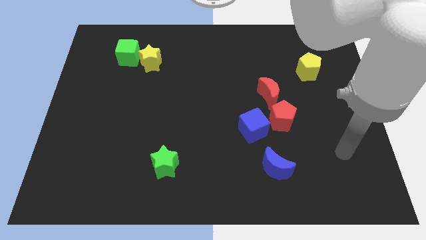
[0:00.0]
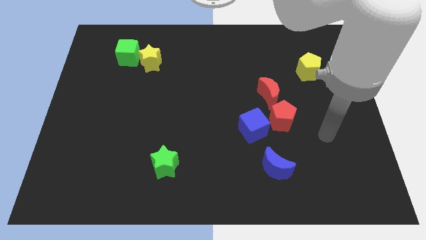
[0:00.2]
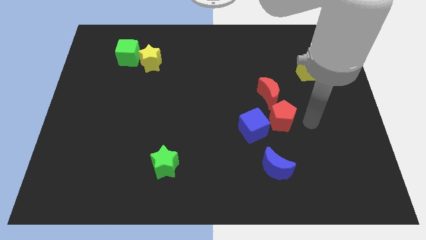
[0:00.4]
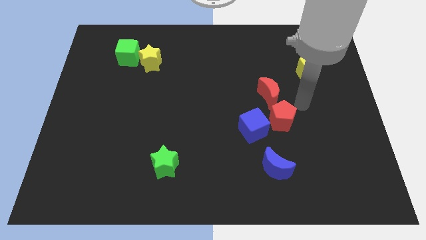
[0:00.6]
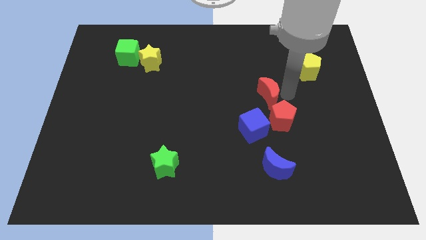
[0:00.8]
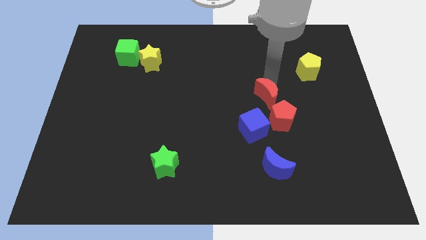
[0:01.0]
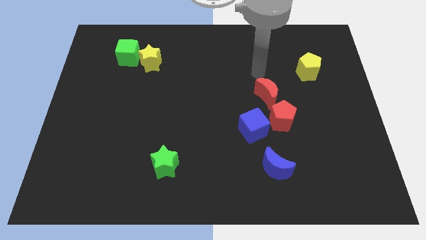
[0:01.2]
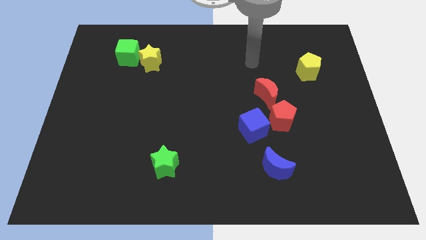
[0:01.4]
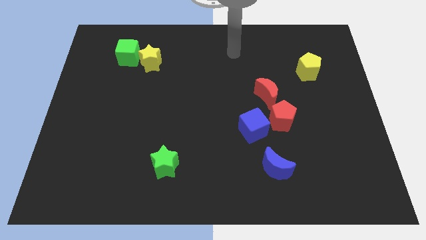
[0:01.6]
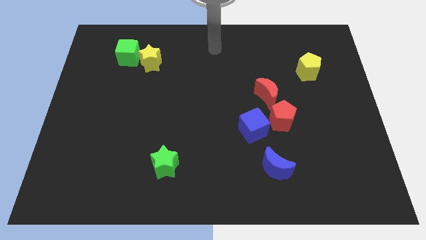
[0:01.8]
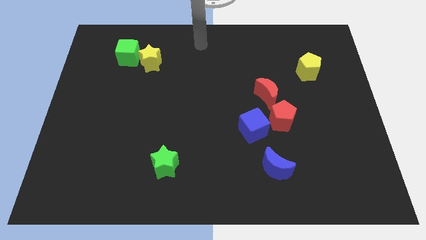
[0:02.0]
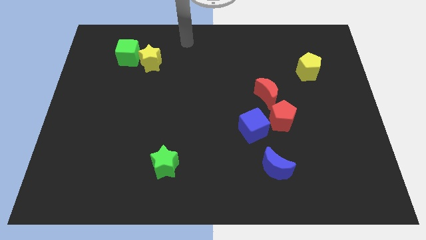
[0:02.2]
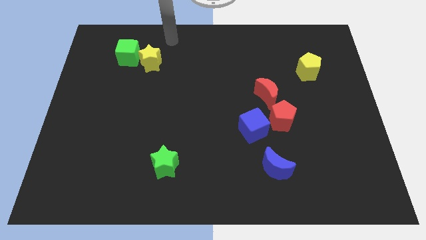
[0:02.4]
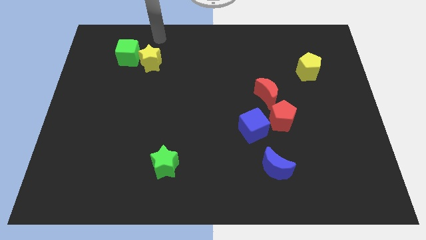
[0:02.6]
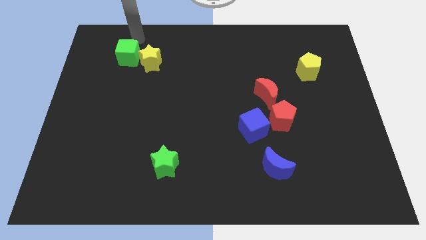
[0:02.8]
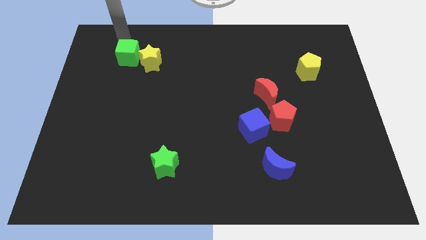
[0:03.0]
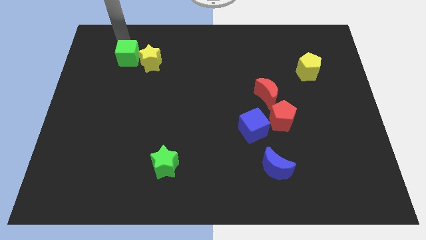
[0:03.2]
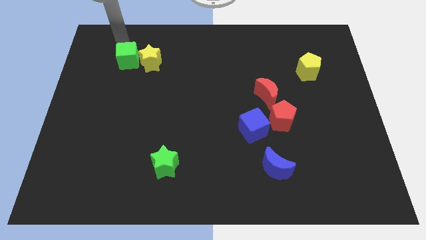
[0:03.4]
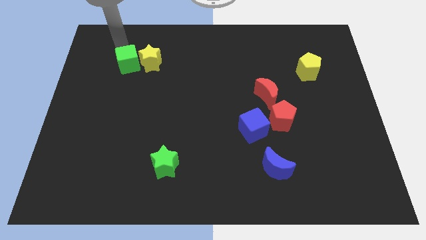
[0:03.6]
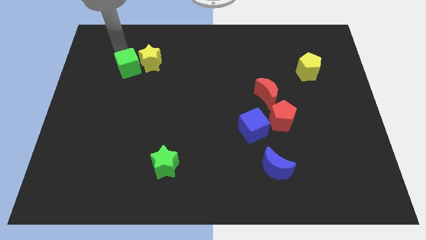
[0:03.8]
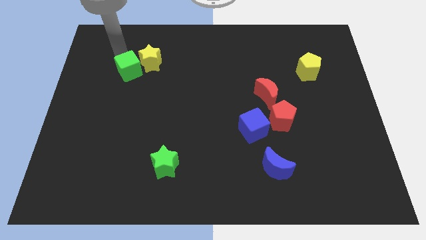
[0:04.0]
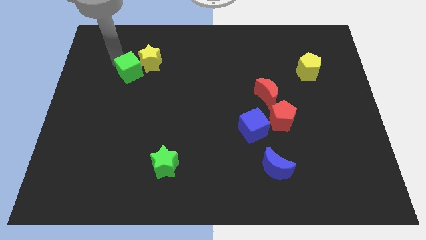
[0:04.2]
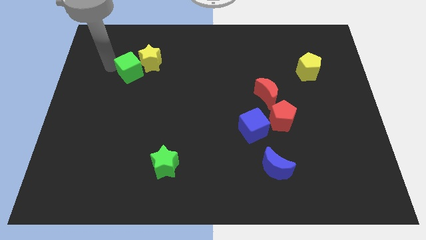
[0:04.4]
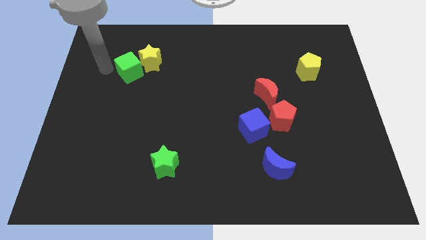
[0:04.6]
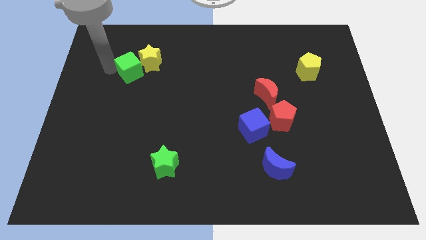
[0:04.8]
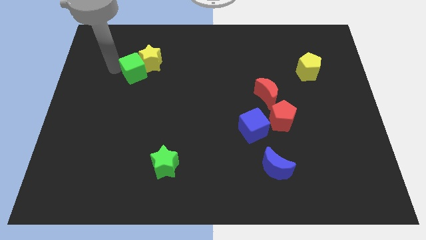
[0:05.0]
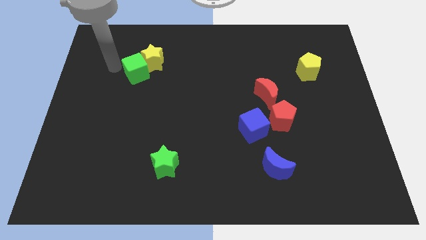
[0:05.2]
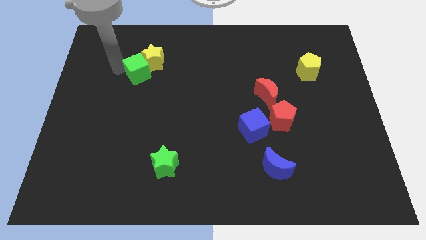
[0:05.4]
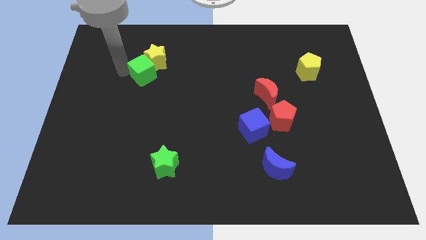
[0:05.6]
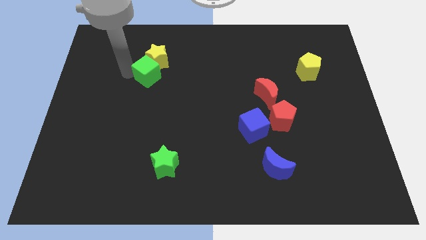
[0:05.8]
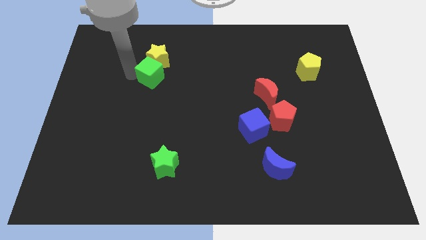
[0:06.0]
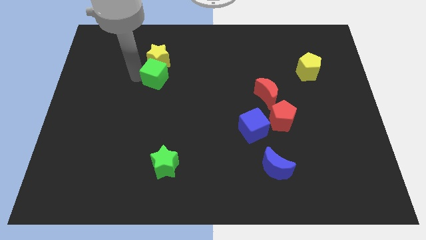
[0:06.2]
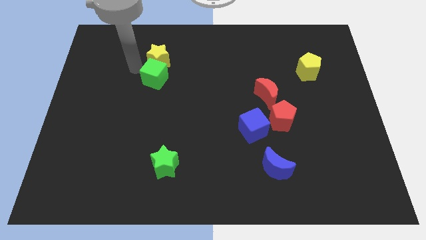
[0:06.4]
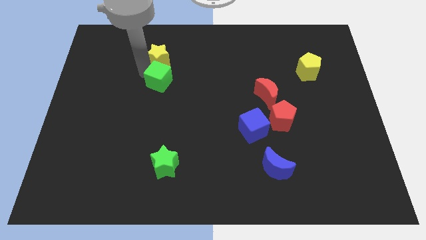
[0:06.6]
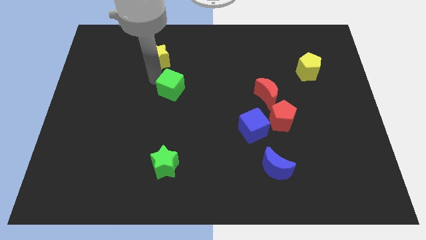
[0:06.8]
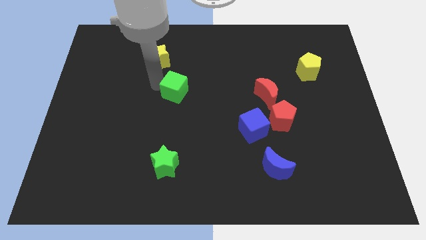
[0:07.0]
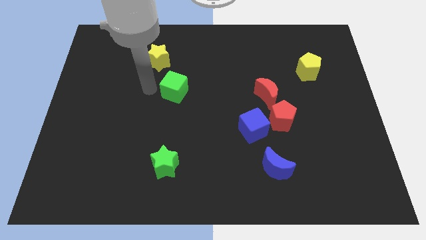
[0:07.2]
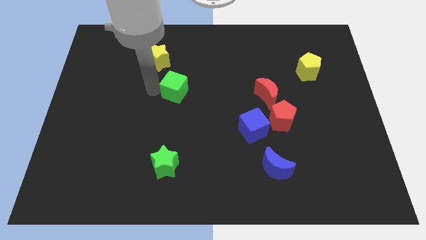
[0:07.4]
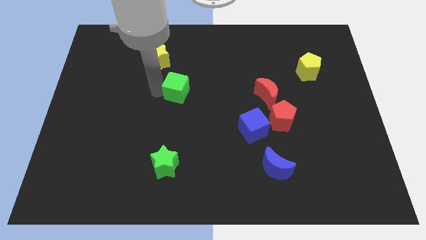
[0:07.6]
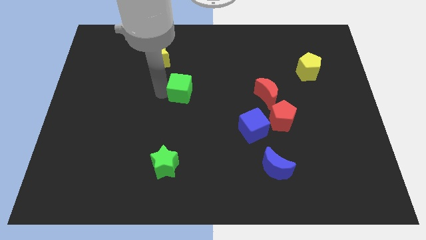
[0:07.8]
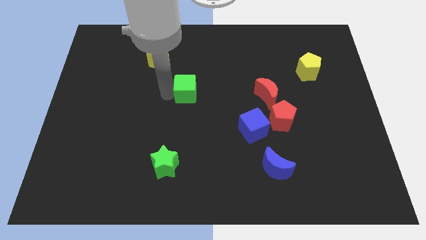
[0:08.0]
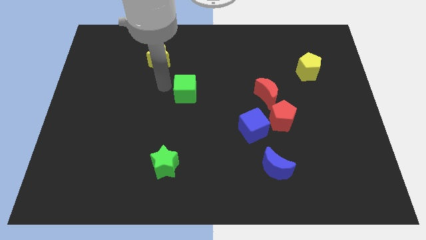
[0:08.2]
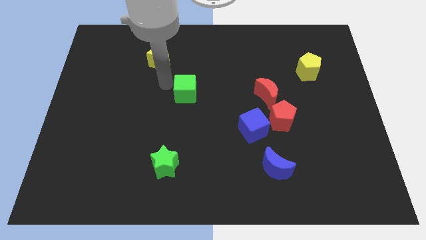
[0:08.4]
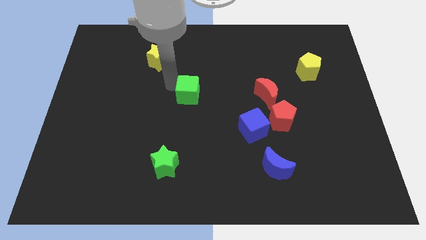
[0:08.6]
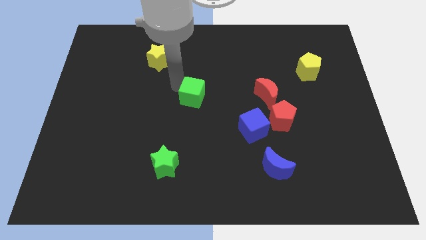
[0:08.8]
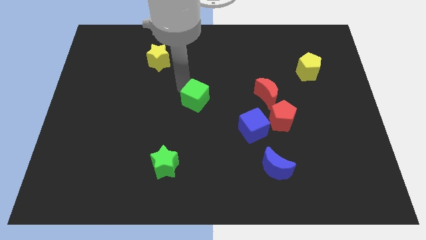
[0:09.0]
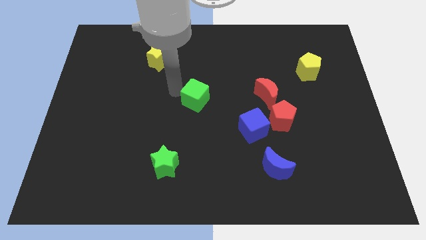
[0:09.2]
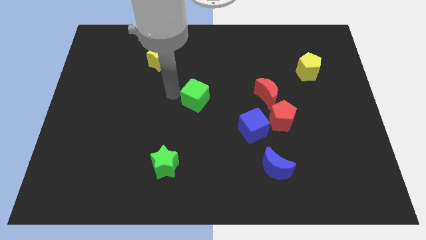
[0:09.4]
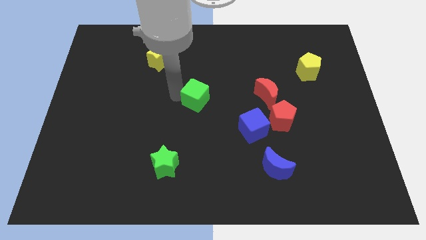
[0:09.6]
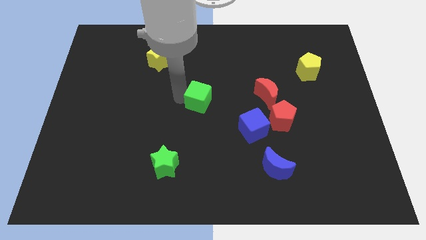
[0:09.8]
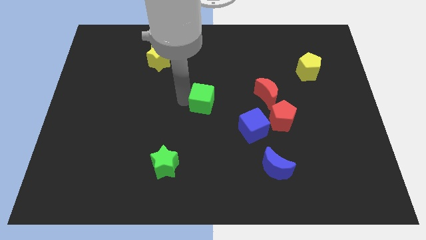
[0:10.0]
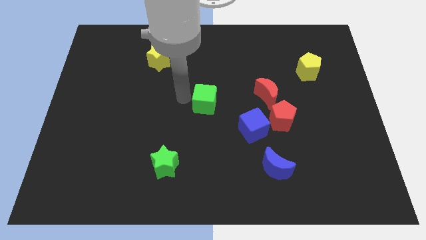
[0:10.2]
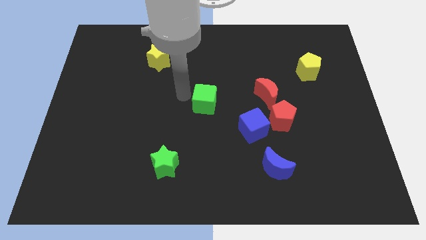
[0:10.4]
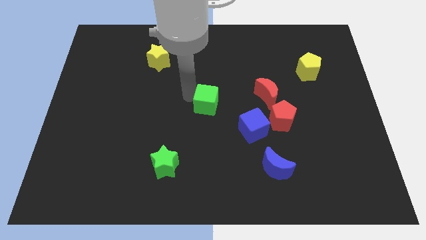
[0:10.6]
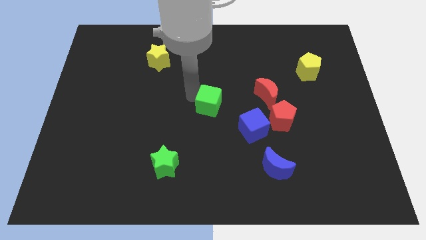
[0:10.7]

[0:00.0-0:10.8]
put the green cube diagonally up and to the left of the blue cube

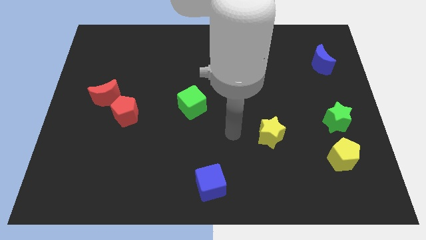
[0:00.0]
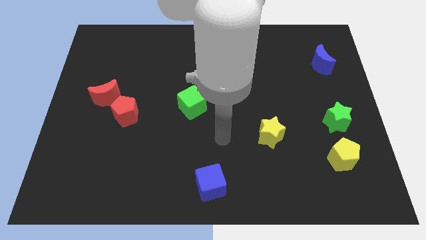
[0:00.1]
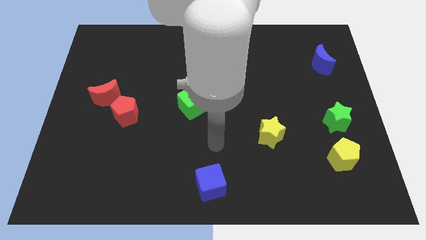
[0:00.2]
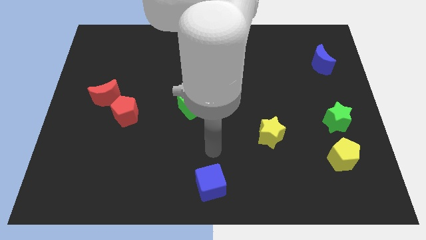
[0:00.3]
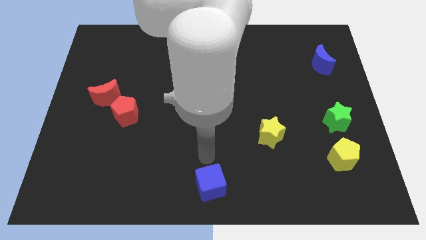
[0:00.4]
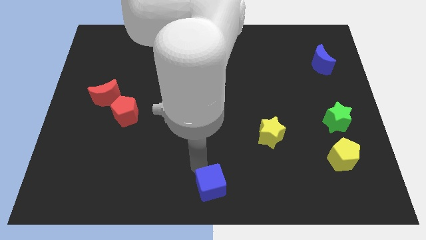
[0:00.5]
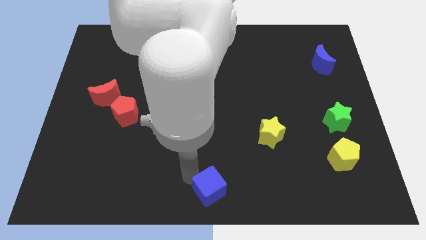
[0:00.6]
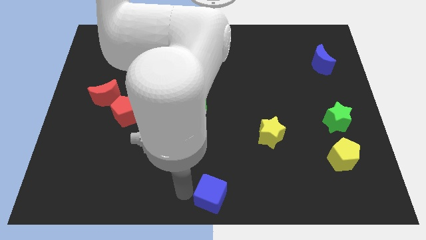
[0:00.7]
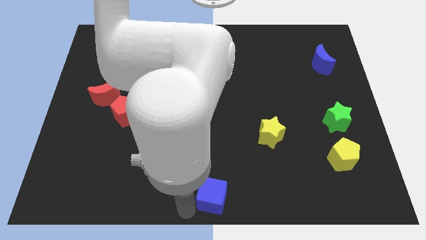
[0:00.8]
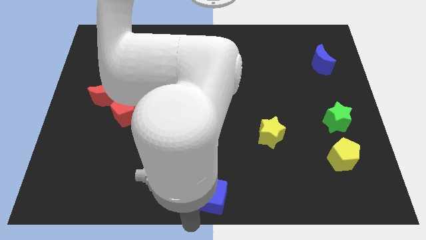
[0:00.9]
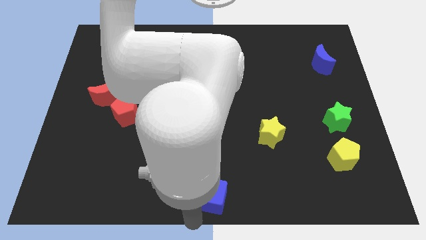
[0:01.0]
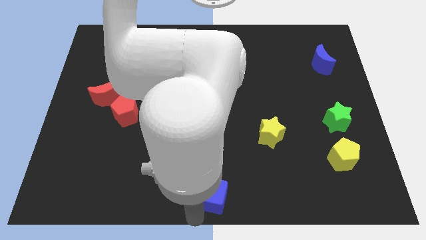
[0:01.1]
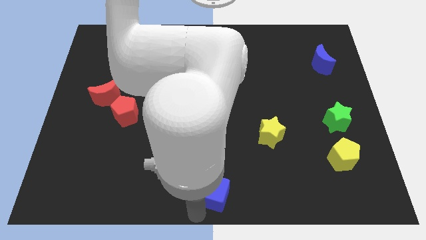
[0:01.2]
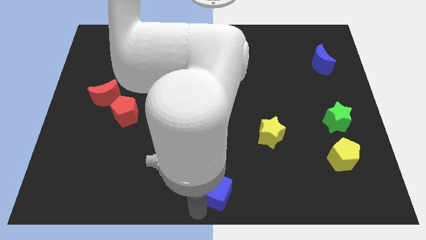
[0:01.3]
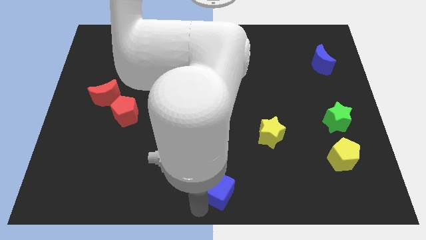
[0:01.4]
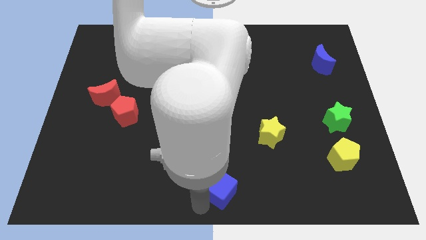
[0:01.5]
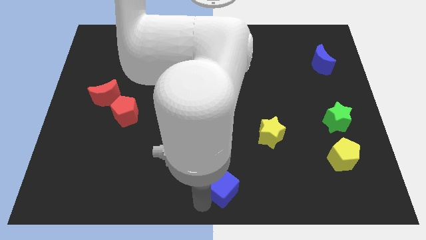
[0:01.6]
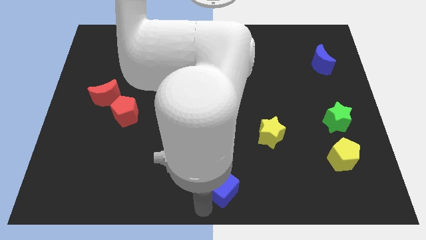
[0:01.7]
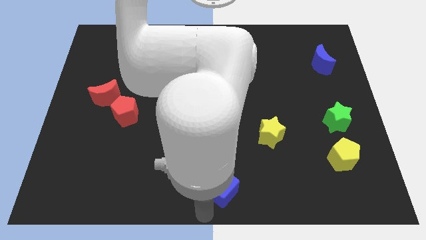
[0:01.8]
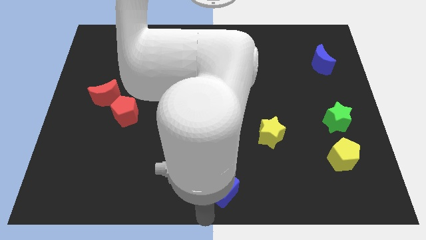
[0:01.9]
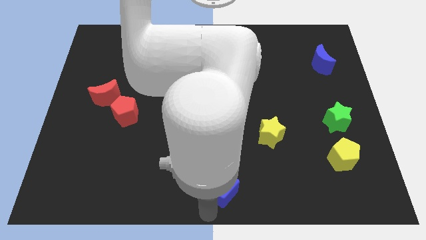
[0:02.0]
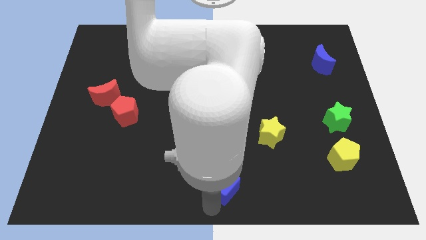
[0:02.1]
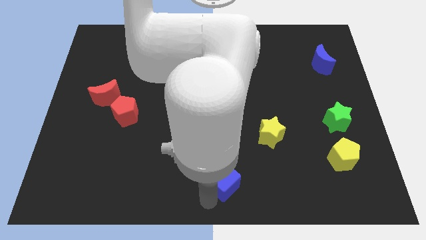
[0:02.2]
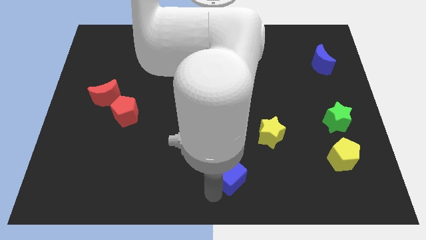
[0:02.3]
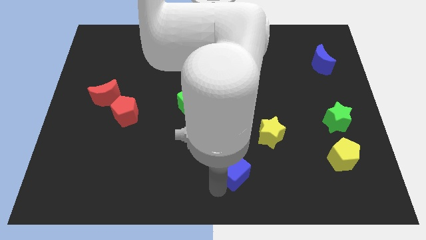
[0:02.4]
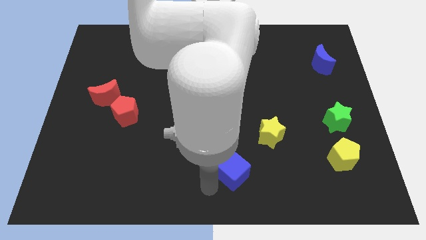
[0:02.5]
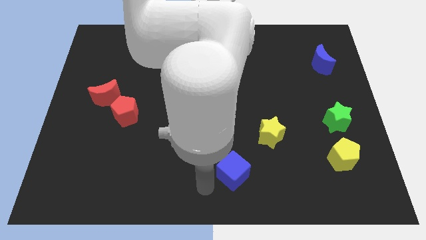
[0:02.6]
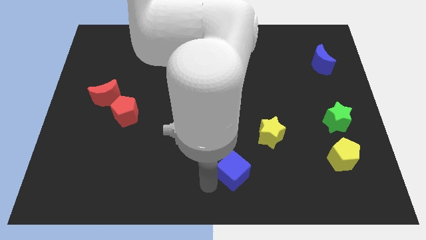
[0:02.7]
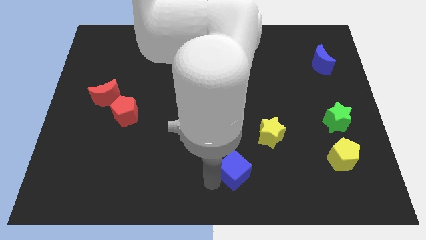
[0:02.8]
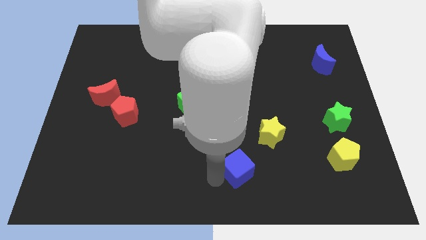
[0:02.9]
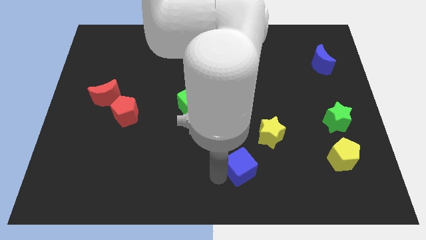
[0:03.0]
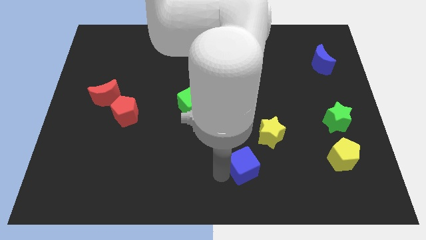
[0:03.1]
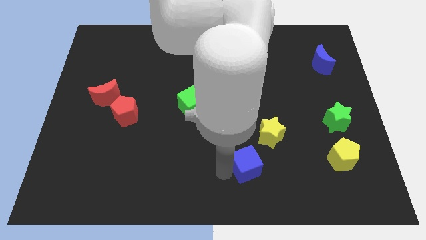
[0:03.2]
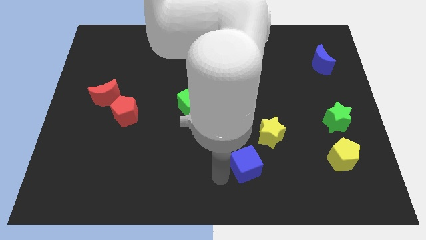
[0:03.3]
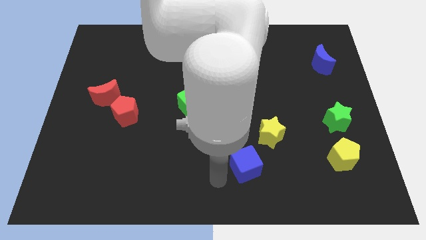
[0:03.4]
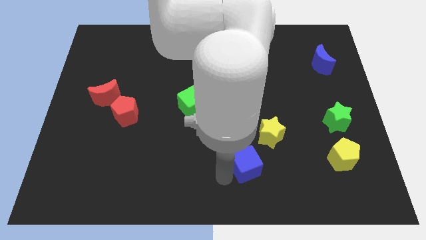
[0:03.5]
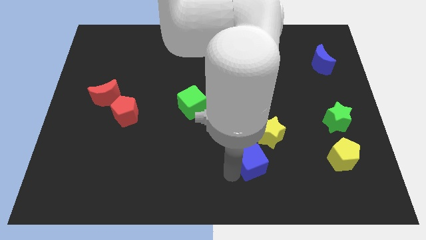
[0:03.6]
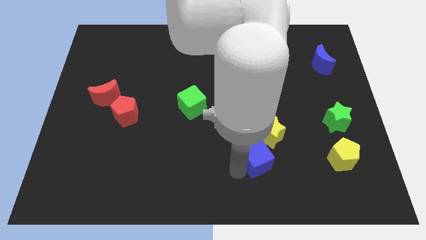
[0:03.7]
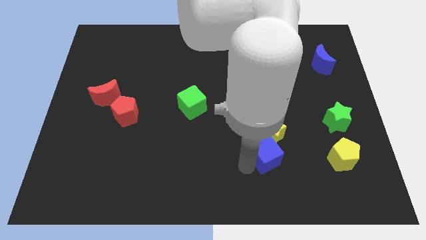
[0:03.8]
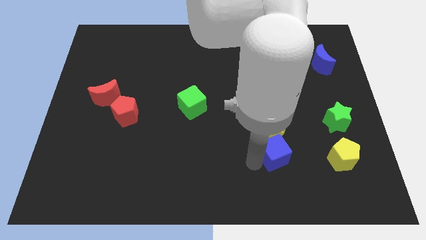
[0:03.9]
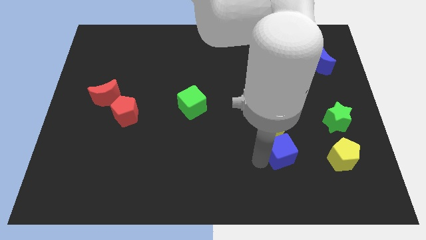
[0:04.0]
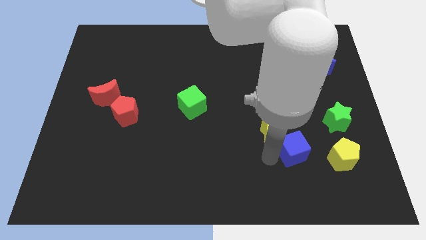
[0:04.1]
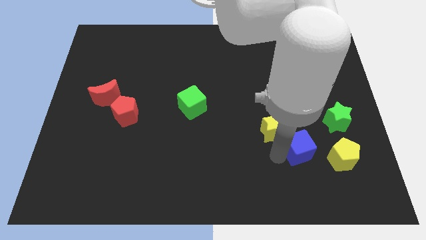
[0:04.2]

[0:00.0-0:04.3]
slide the blue cube to the bottom left side of the green star
